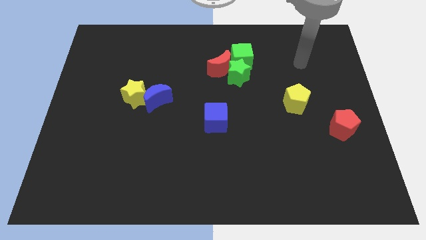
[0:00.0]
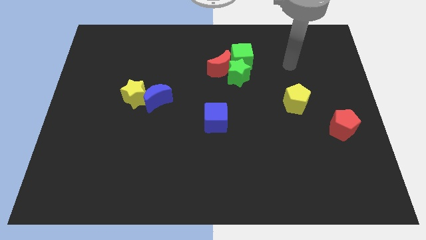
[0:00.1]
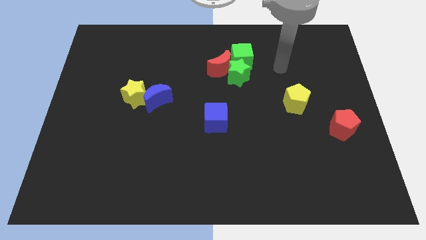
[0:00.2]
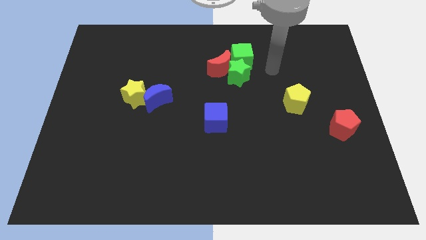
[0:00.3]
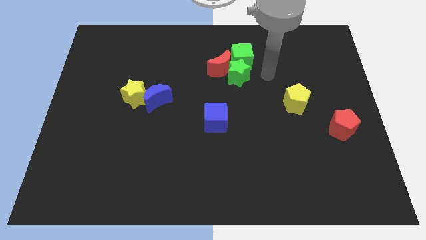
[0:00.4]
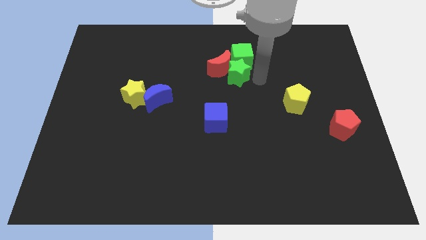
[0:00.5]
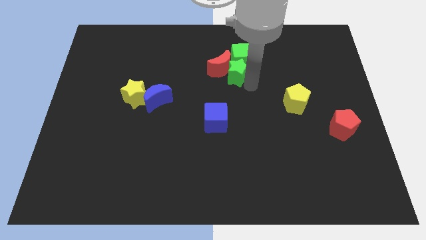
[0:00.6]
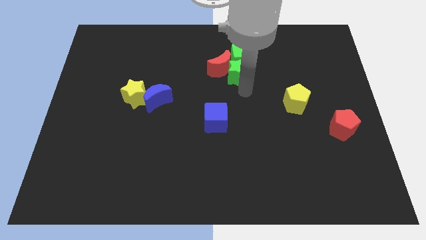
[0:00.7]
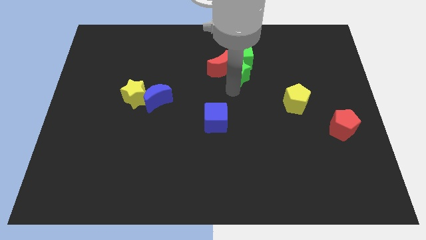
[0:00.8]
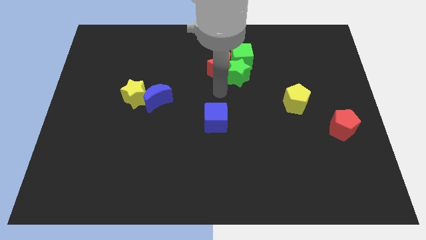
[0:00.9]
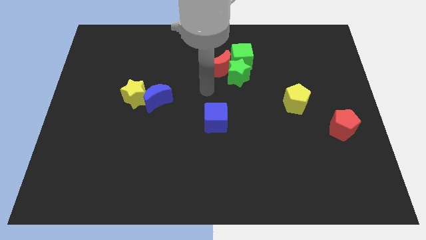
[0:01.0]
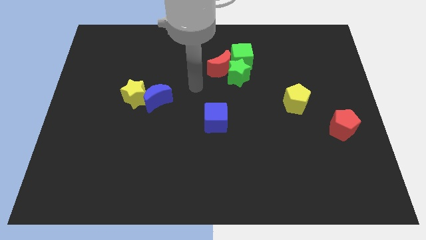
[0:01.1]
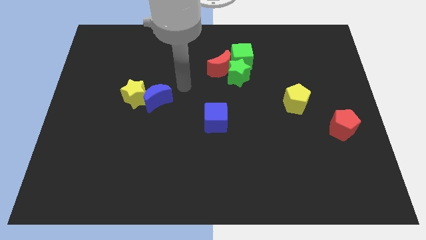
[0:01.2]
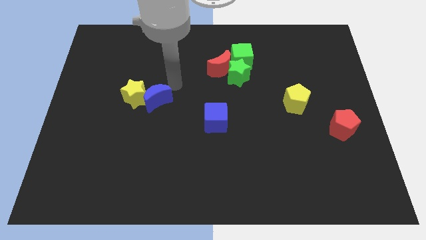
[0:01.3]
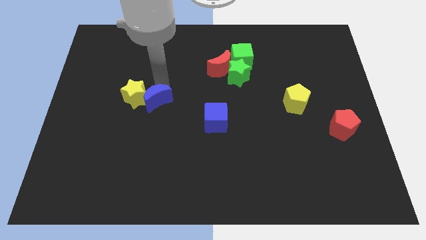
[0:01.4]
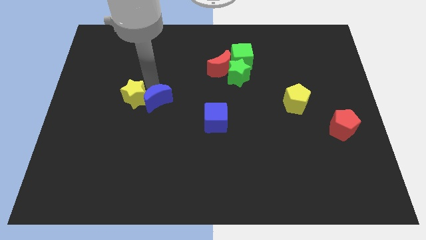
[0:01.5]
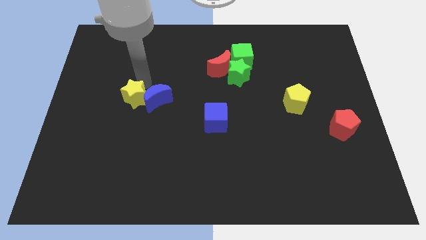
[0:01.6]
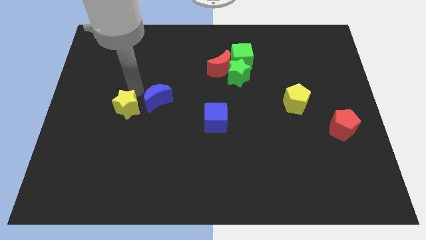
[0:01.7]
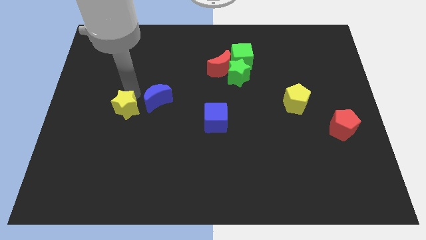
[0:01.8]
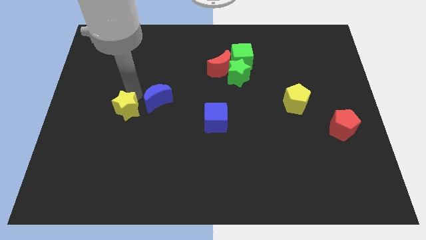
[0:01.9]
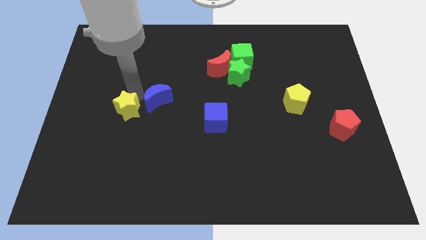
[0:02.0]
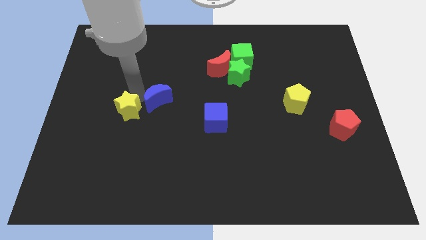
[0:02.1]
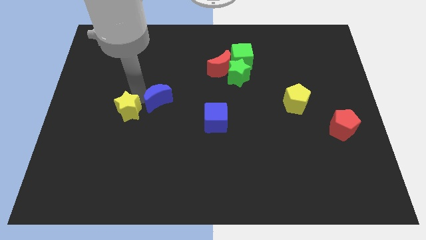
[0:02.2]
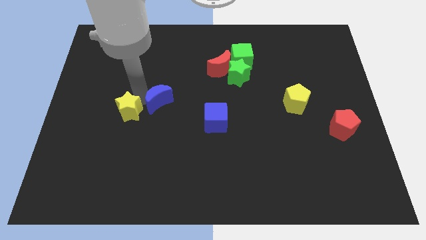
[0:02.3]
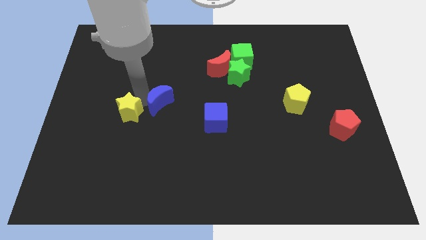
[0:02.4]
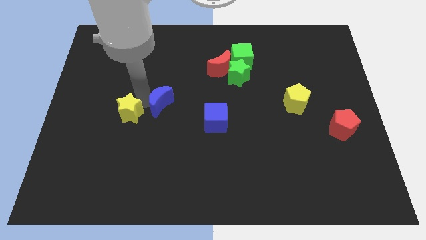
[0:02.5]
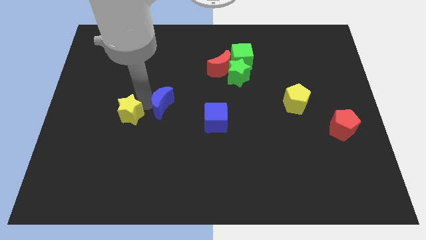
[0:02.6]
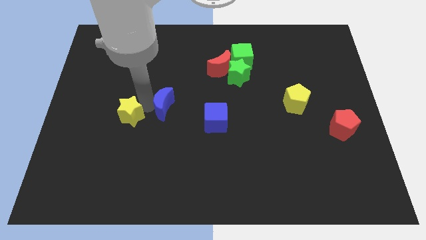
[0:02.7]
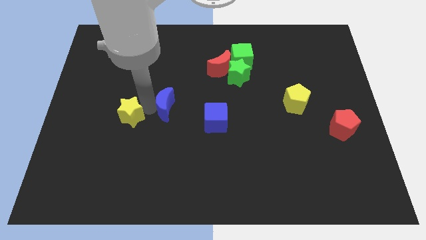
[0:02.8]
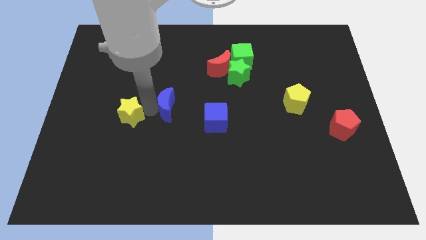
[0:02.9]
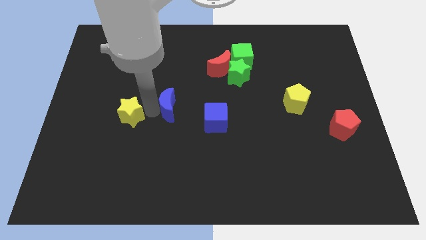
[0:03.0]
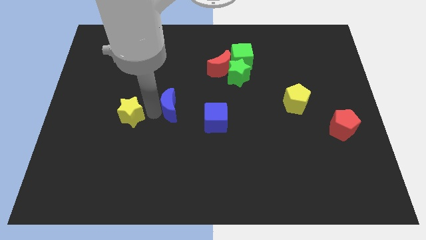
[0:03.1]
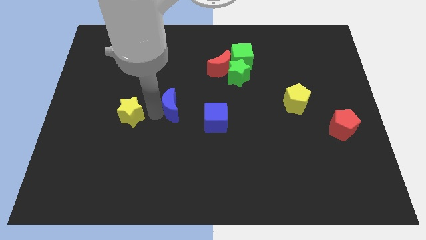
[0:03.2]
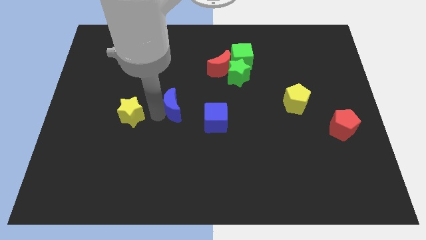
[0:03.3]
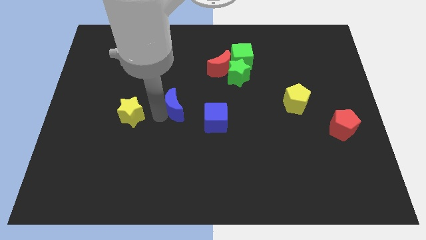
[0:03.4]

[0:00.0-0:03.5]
pull the blue moon apart from the yellow star

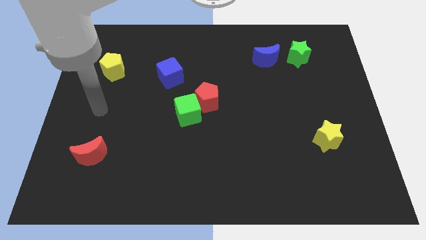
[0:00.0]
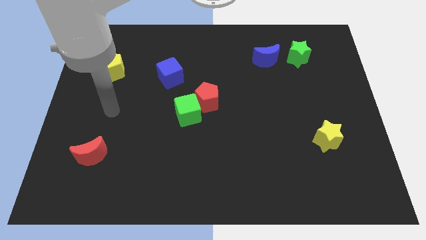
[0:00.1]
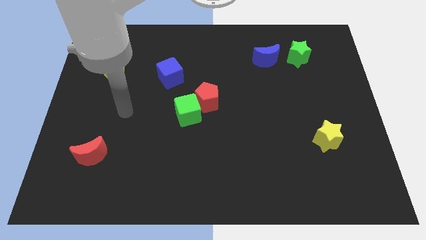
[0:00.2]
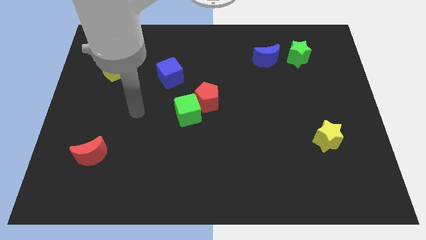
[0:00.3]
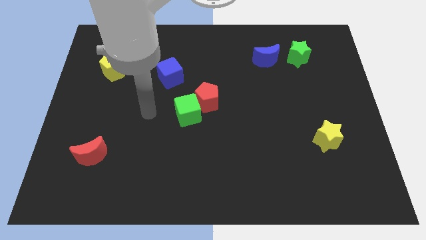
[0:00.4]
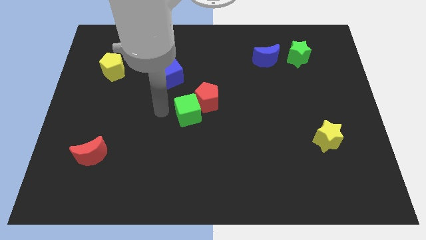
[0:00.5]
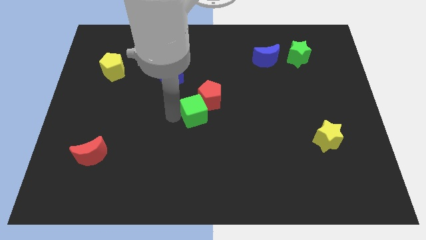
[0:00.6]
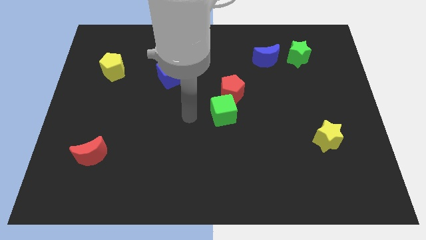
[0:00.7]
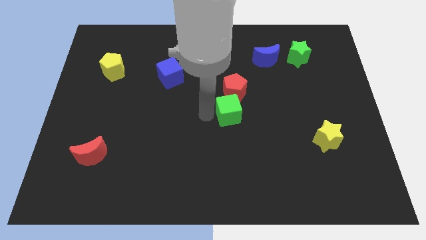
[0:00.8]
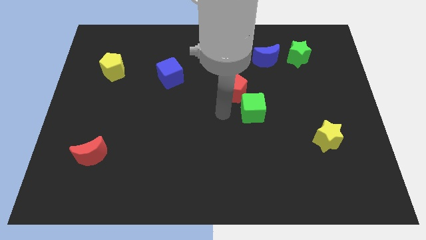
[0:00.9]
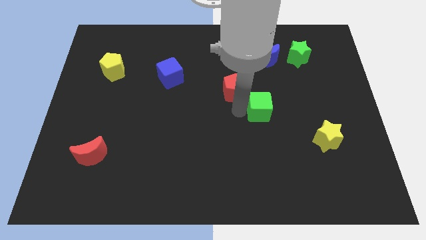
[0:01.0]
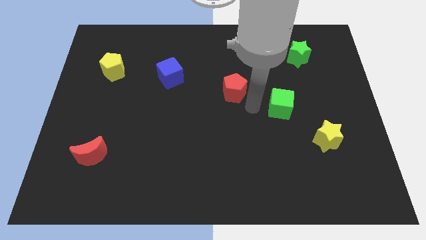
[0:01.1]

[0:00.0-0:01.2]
separate the red pentagon from the green cube

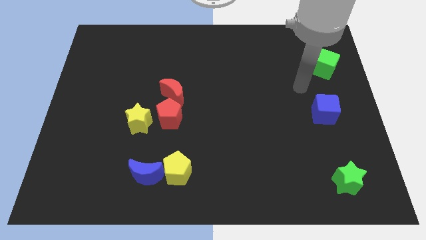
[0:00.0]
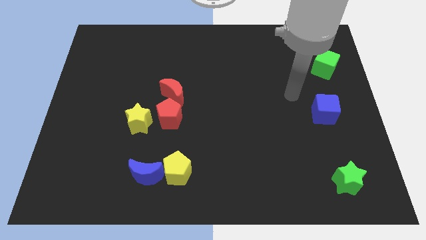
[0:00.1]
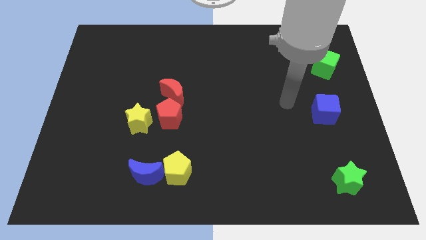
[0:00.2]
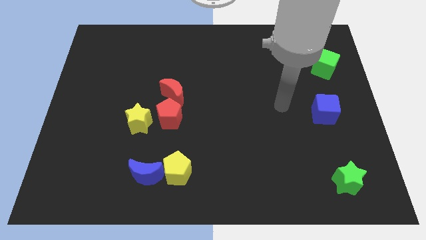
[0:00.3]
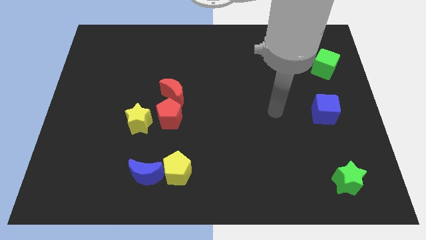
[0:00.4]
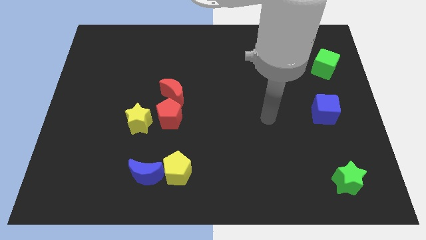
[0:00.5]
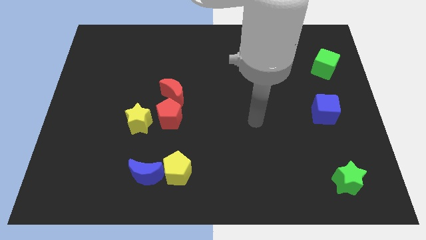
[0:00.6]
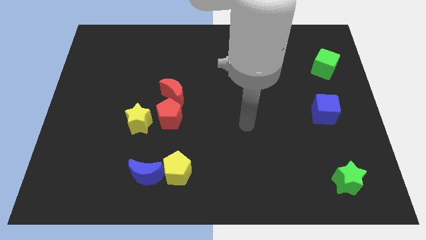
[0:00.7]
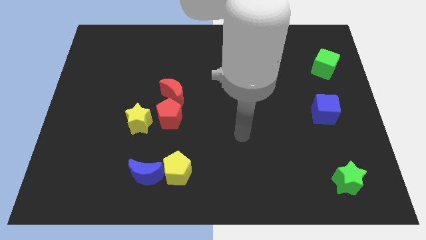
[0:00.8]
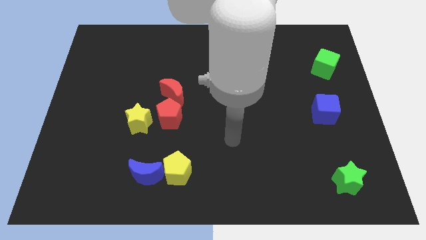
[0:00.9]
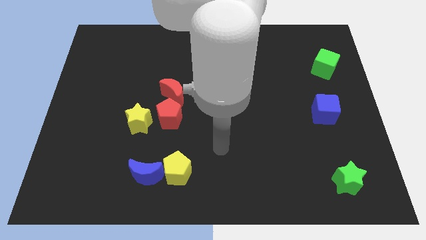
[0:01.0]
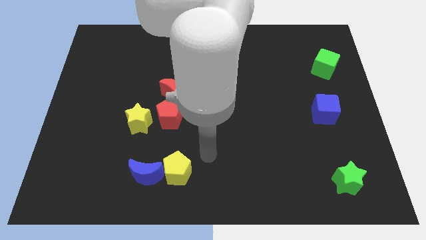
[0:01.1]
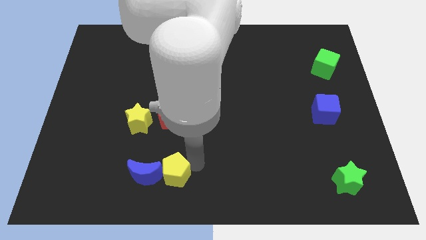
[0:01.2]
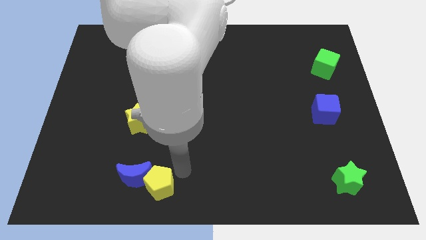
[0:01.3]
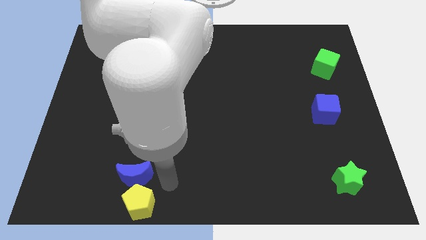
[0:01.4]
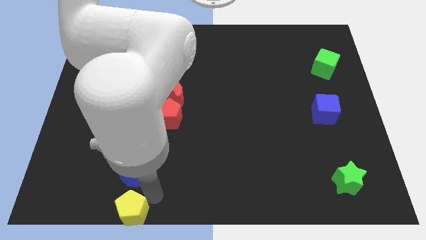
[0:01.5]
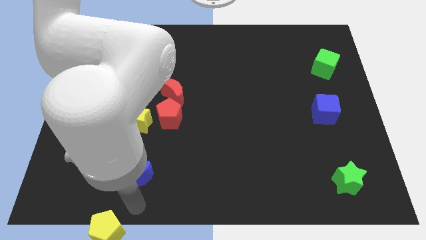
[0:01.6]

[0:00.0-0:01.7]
move the blue moon away from the yellow pentagon

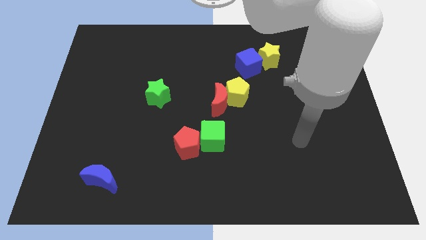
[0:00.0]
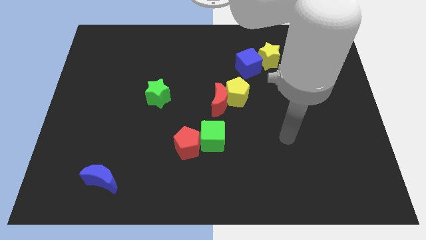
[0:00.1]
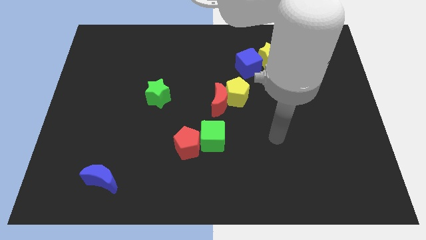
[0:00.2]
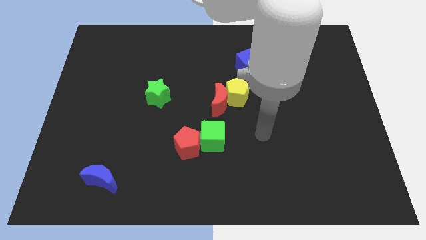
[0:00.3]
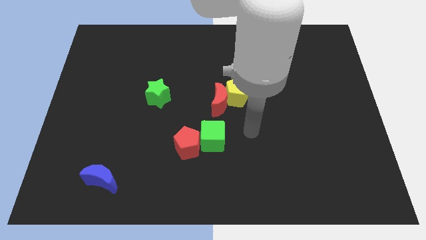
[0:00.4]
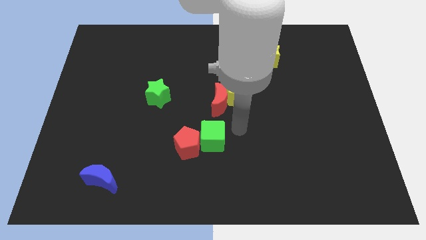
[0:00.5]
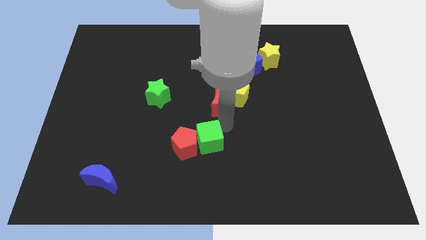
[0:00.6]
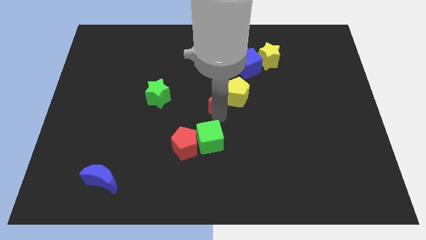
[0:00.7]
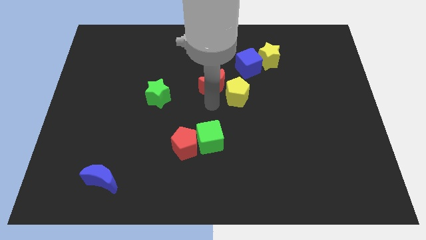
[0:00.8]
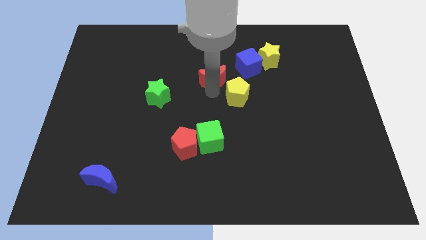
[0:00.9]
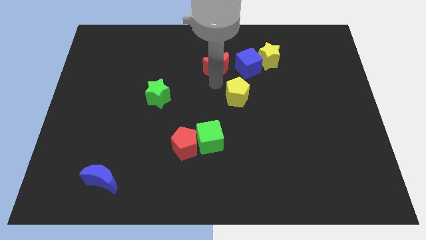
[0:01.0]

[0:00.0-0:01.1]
move the yellow pentagon away from the red moon

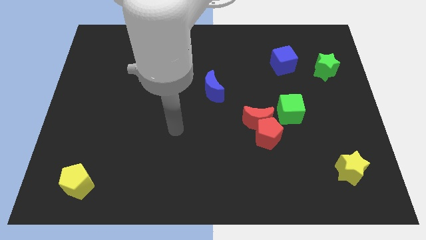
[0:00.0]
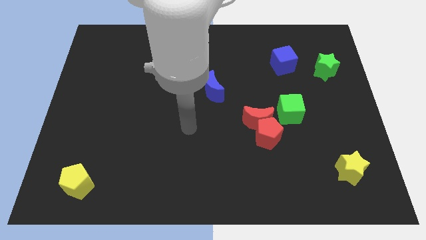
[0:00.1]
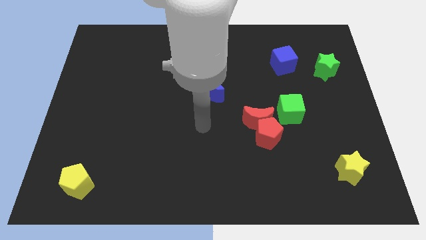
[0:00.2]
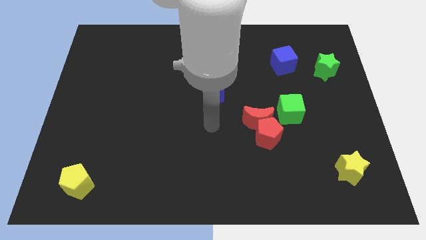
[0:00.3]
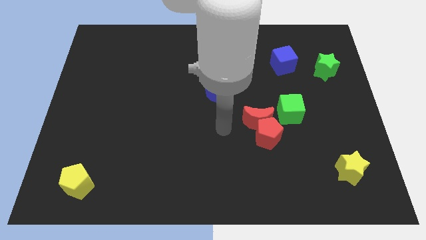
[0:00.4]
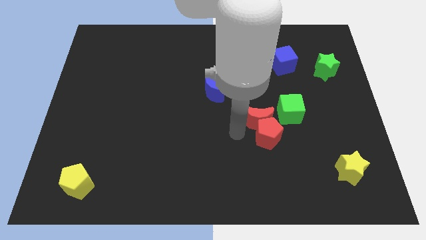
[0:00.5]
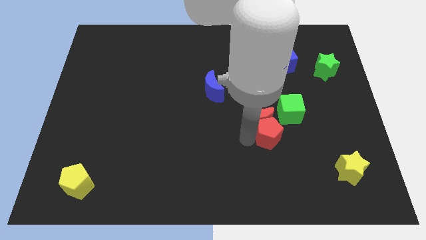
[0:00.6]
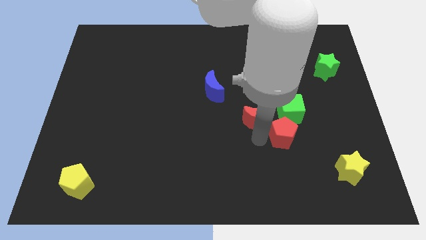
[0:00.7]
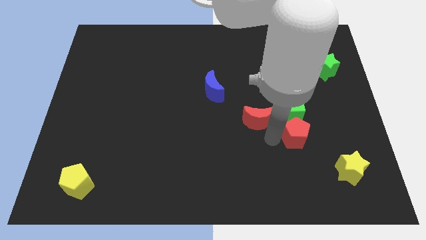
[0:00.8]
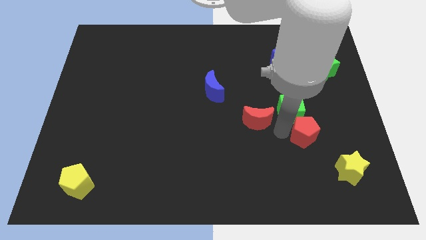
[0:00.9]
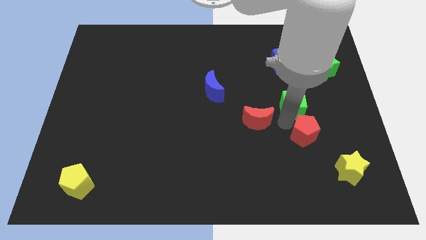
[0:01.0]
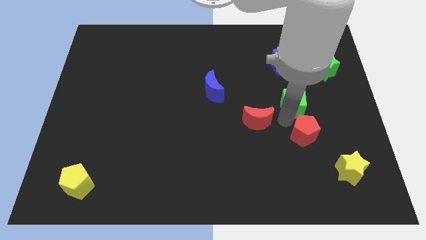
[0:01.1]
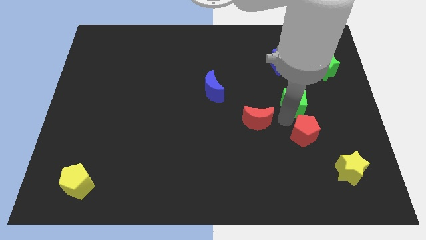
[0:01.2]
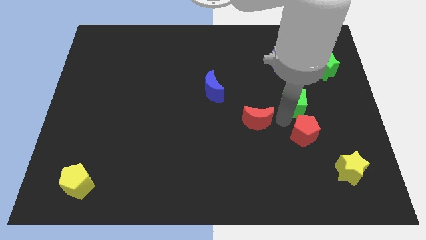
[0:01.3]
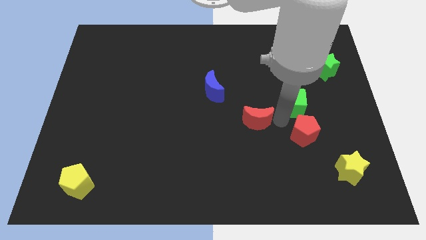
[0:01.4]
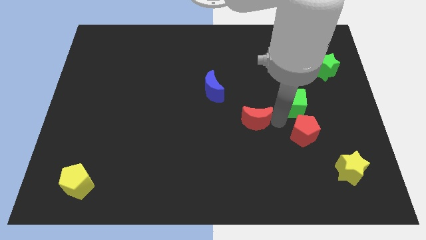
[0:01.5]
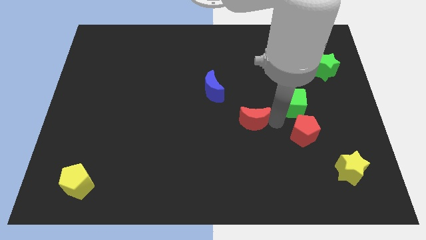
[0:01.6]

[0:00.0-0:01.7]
move the red moon away from the red pentagon and green cube
